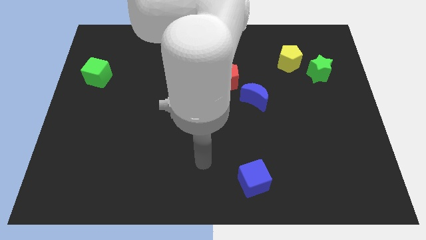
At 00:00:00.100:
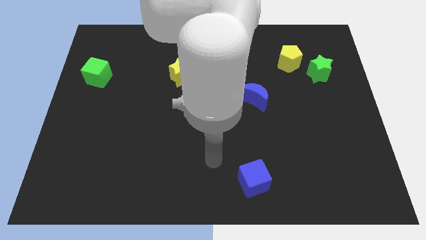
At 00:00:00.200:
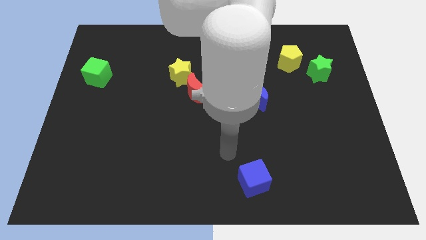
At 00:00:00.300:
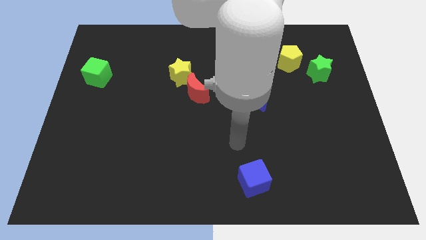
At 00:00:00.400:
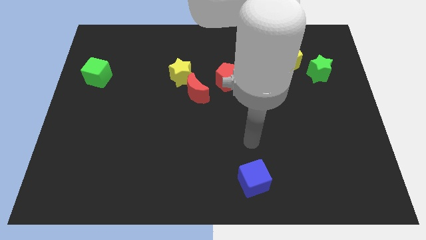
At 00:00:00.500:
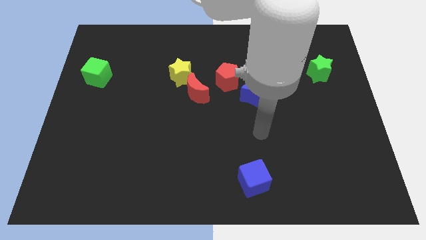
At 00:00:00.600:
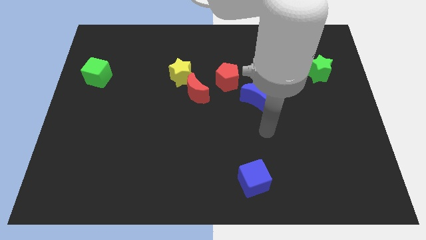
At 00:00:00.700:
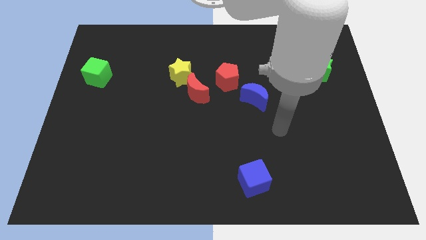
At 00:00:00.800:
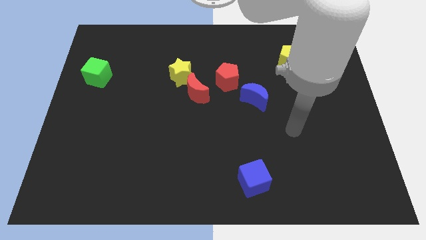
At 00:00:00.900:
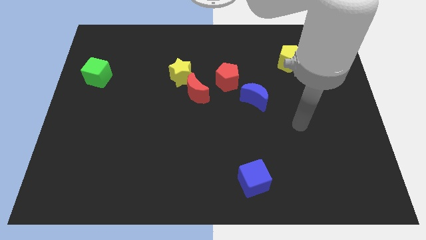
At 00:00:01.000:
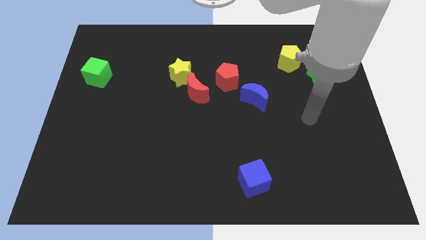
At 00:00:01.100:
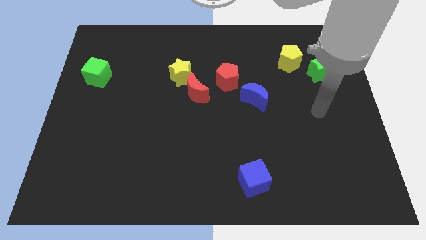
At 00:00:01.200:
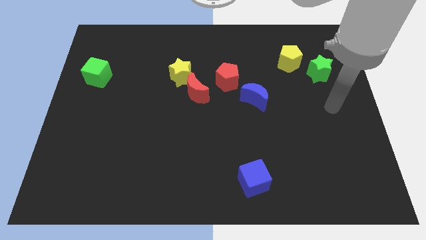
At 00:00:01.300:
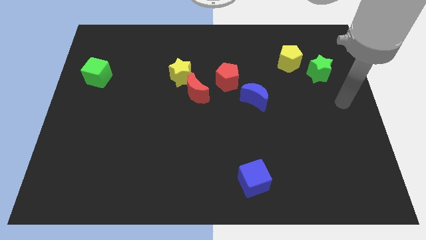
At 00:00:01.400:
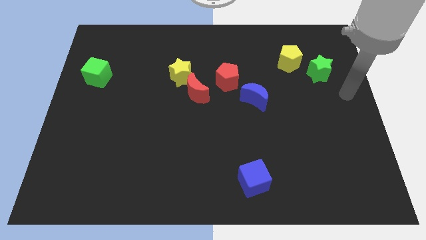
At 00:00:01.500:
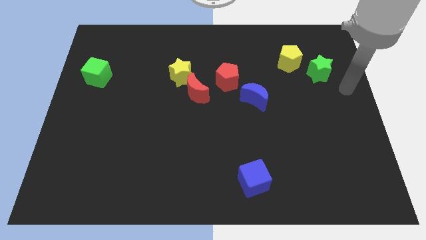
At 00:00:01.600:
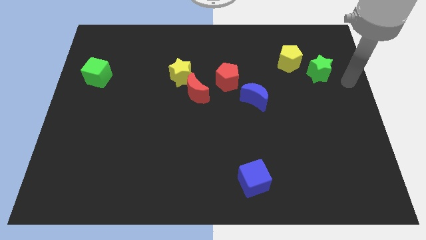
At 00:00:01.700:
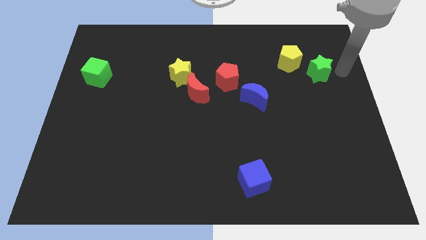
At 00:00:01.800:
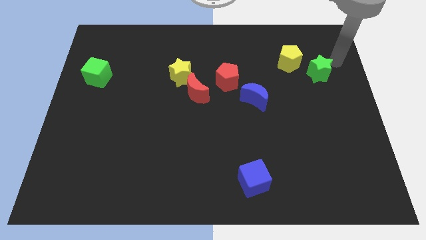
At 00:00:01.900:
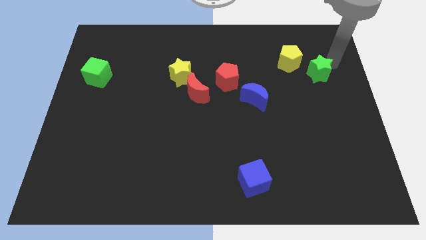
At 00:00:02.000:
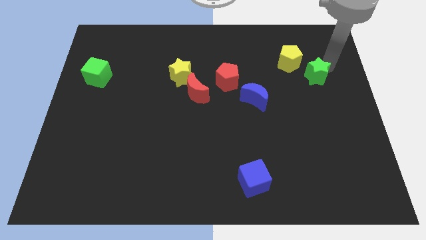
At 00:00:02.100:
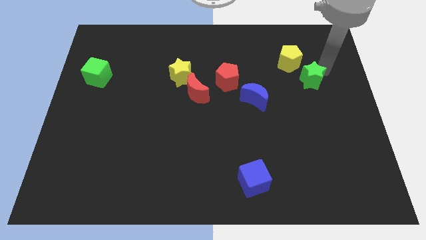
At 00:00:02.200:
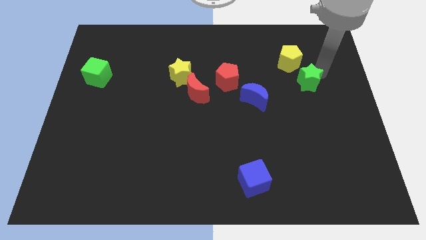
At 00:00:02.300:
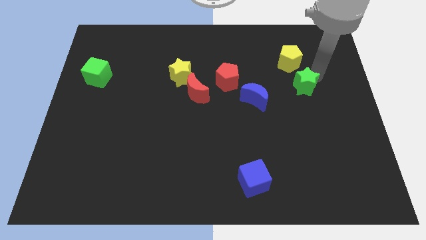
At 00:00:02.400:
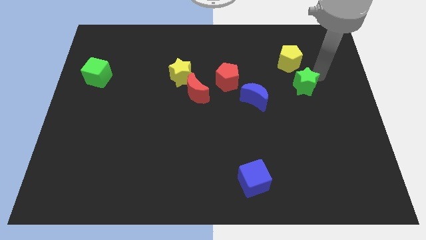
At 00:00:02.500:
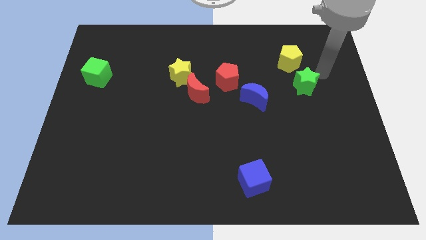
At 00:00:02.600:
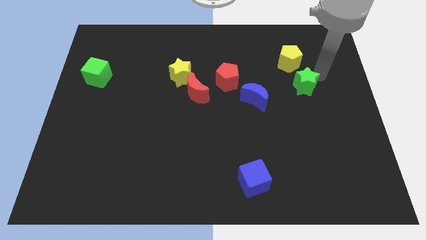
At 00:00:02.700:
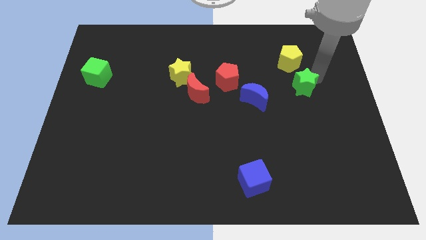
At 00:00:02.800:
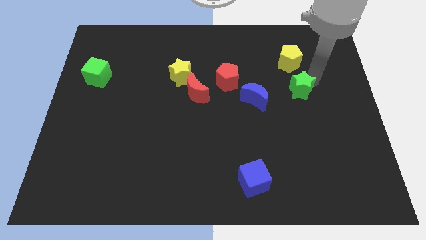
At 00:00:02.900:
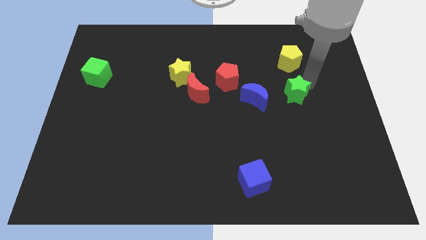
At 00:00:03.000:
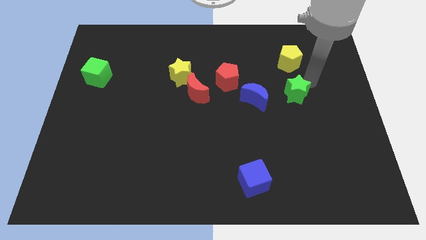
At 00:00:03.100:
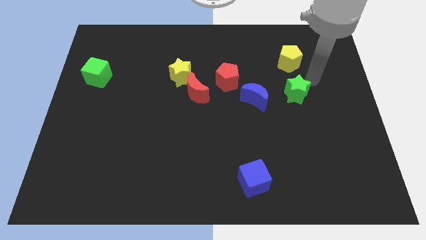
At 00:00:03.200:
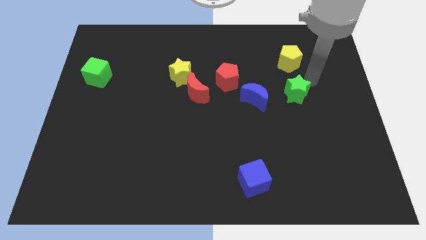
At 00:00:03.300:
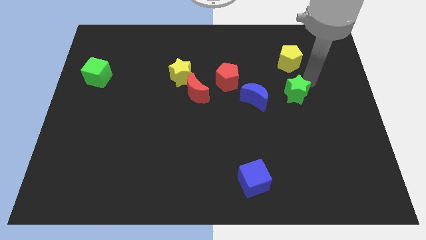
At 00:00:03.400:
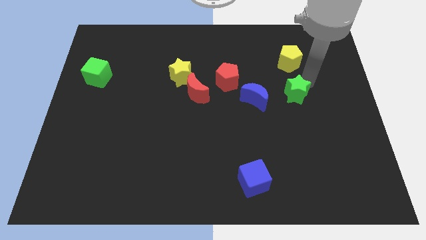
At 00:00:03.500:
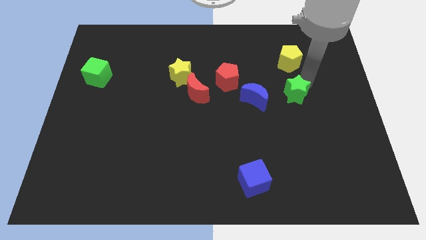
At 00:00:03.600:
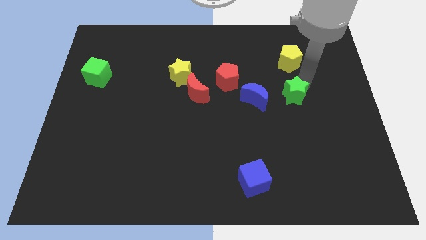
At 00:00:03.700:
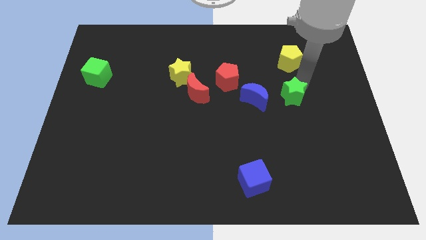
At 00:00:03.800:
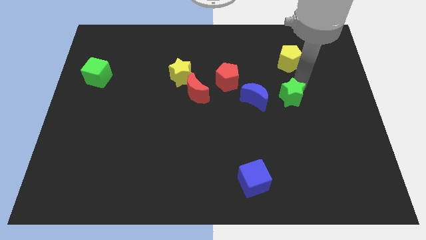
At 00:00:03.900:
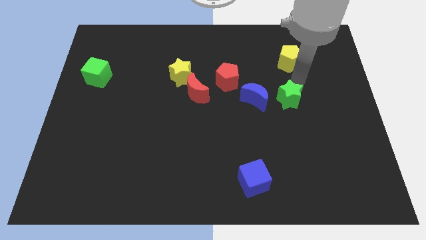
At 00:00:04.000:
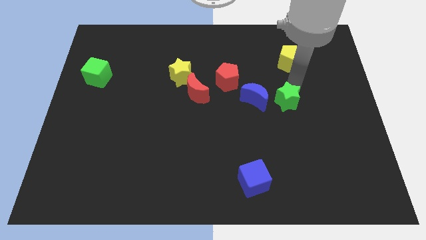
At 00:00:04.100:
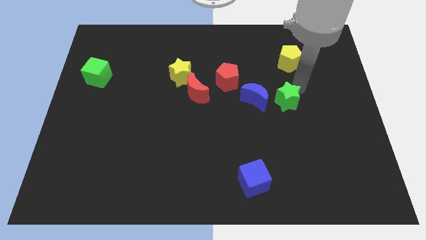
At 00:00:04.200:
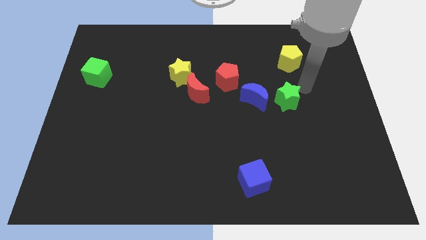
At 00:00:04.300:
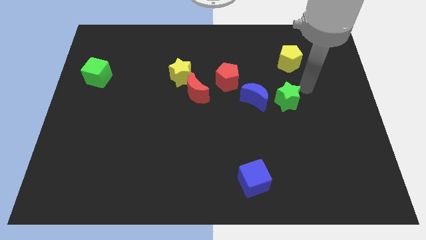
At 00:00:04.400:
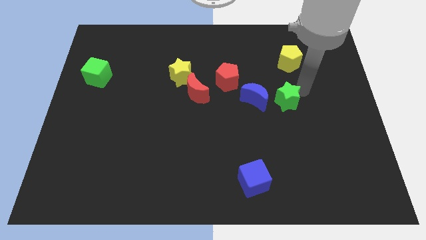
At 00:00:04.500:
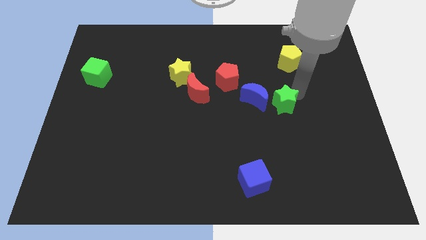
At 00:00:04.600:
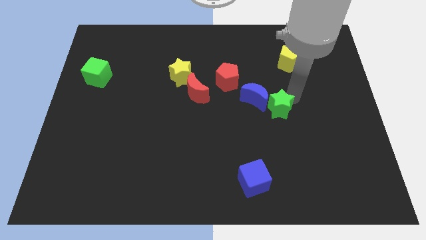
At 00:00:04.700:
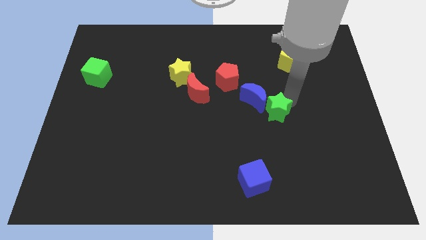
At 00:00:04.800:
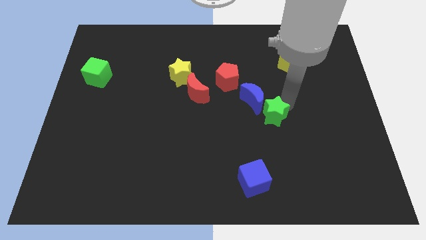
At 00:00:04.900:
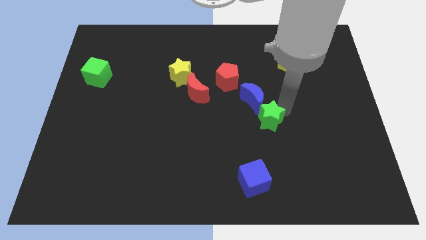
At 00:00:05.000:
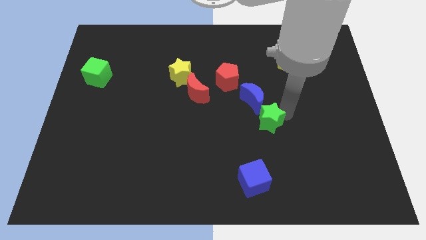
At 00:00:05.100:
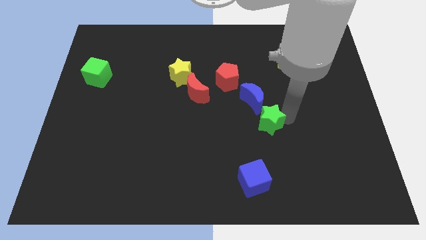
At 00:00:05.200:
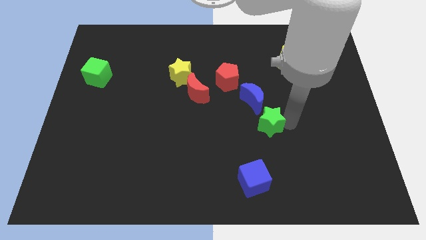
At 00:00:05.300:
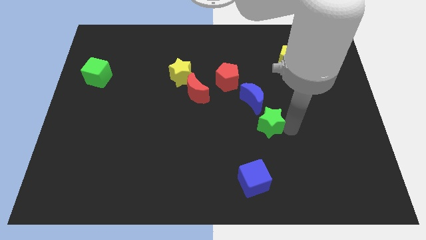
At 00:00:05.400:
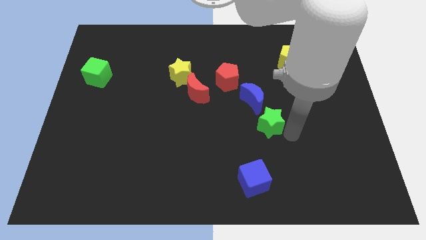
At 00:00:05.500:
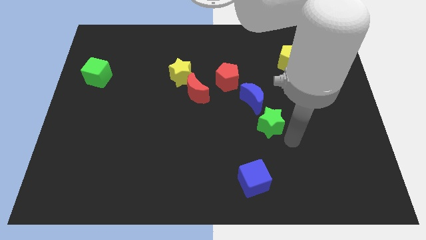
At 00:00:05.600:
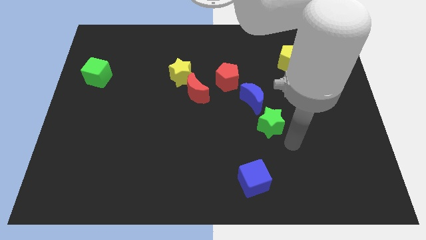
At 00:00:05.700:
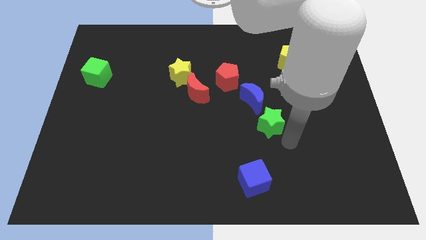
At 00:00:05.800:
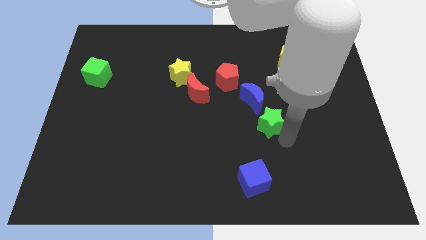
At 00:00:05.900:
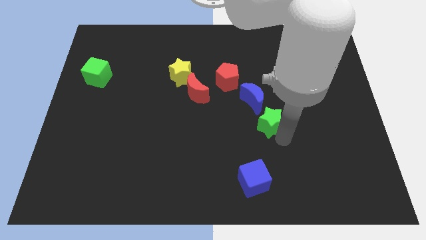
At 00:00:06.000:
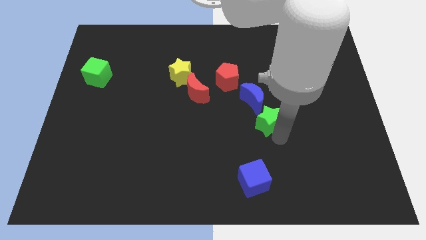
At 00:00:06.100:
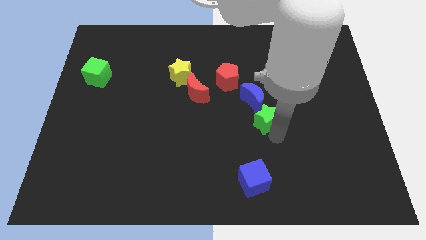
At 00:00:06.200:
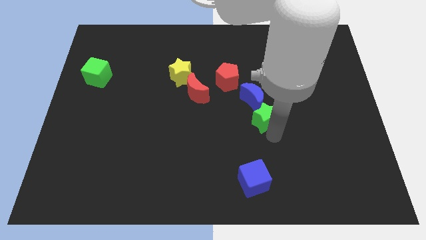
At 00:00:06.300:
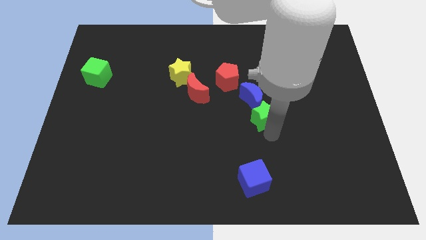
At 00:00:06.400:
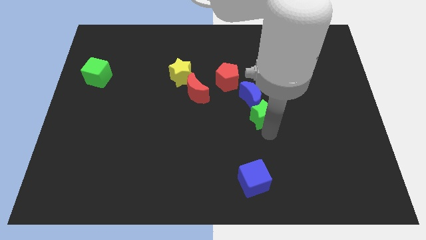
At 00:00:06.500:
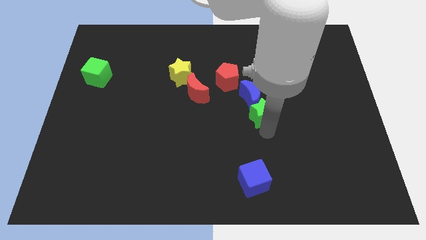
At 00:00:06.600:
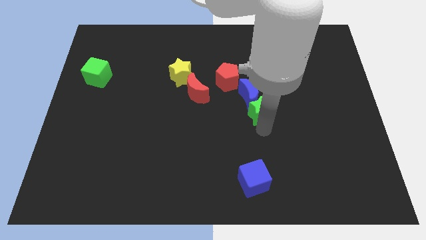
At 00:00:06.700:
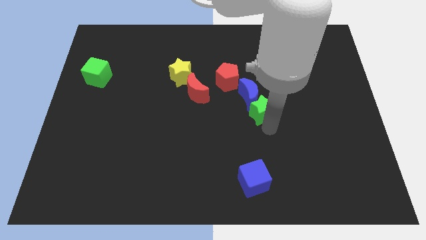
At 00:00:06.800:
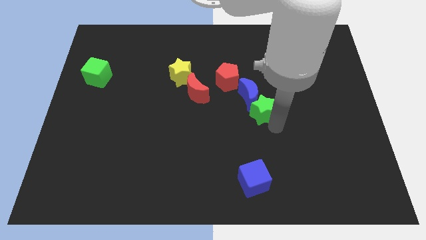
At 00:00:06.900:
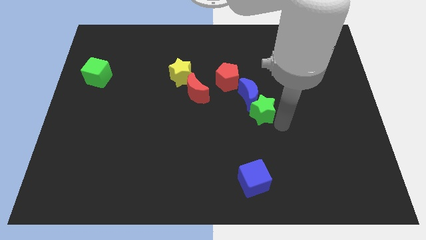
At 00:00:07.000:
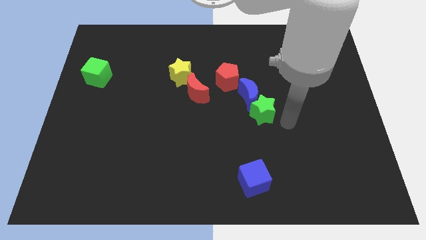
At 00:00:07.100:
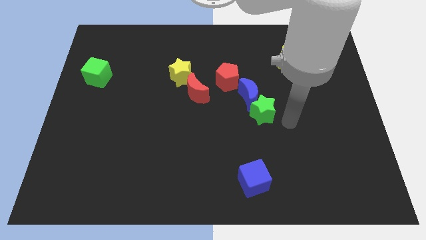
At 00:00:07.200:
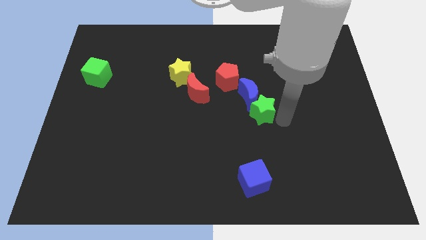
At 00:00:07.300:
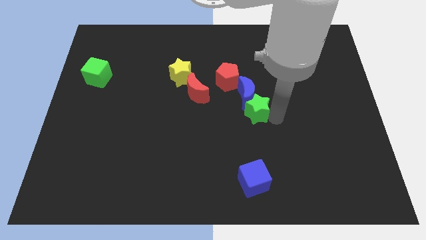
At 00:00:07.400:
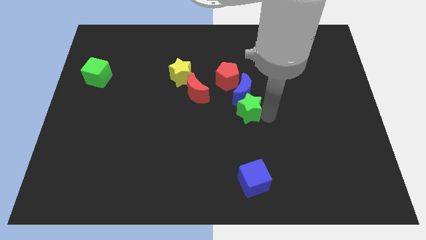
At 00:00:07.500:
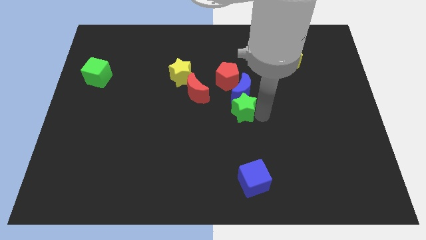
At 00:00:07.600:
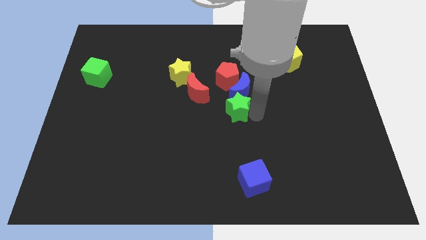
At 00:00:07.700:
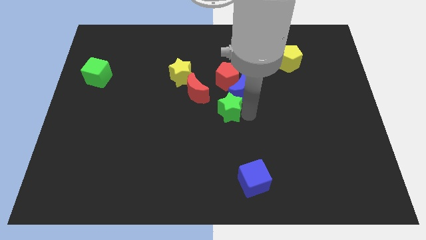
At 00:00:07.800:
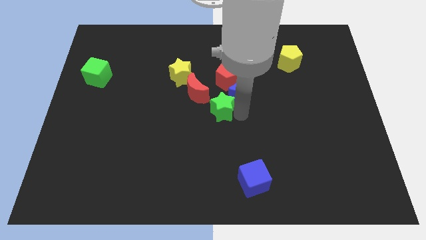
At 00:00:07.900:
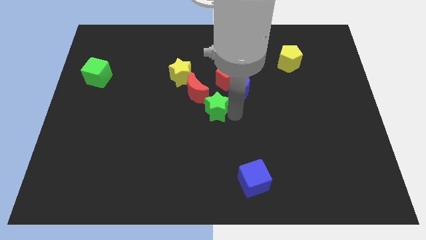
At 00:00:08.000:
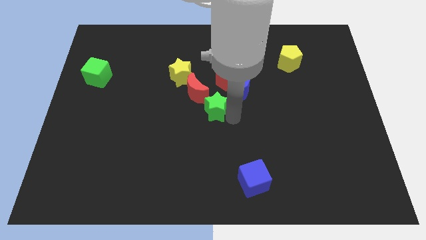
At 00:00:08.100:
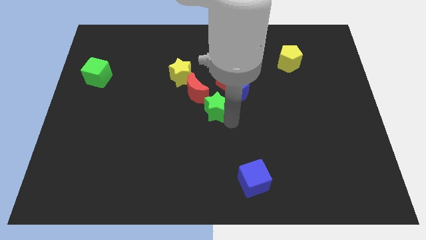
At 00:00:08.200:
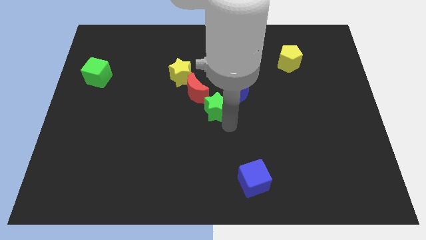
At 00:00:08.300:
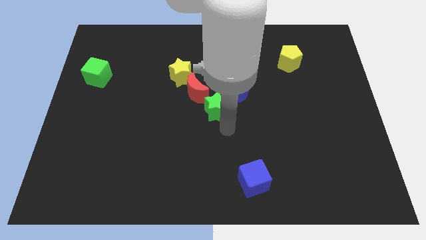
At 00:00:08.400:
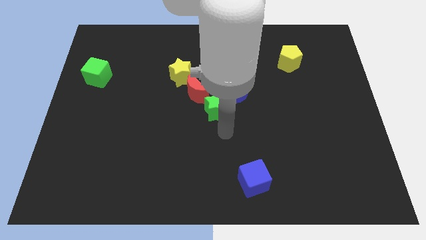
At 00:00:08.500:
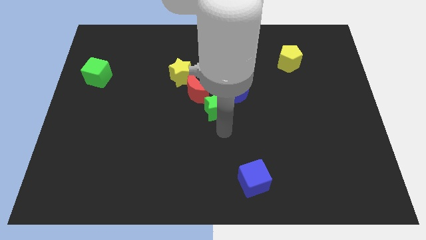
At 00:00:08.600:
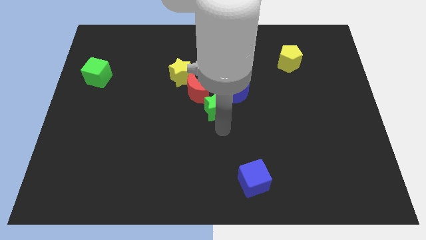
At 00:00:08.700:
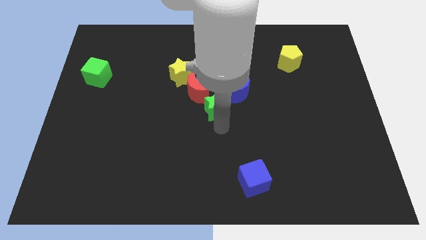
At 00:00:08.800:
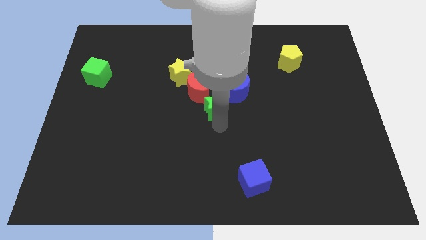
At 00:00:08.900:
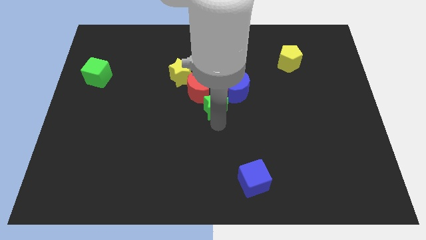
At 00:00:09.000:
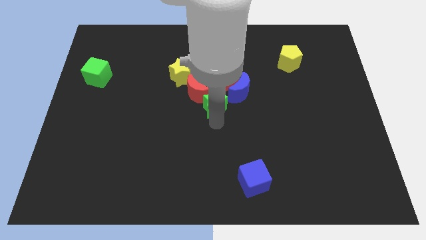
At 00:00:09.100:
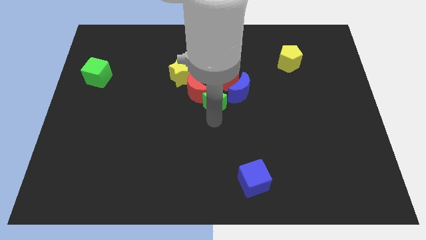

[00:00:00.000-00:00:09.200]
move the green star to the bottom right of the yellow star
